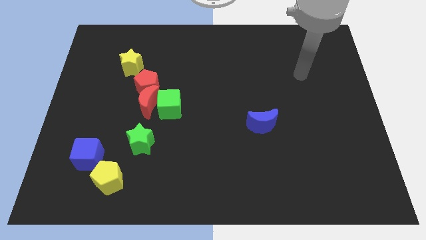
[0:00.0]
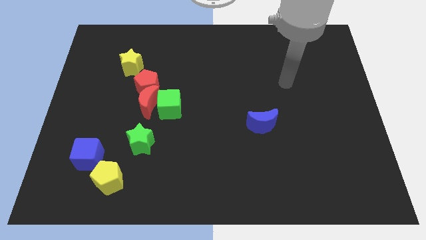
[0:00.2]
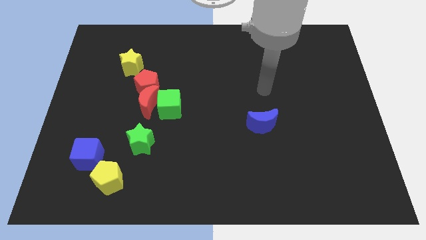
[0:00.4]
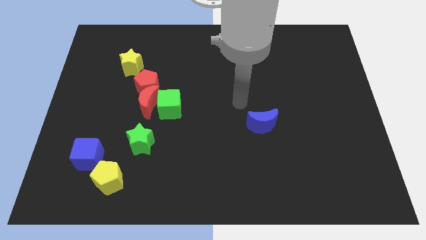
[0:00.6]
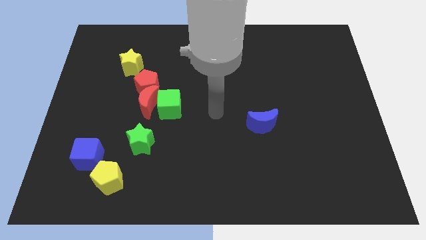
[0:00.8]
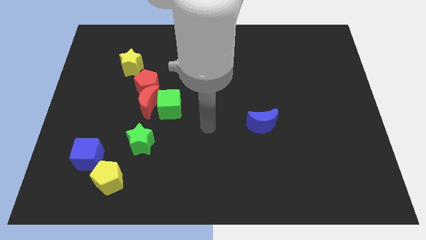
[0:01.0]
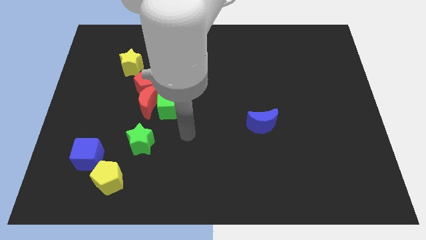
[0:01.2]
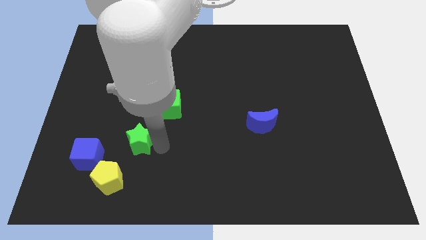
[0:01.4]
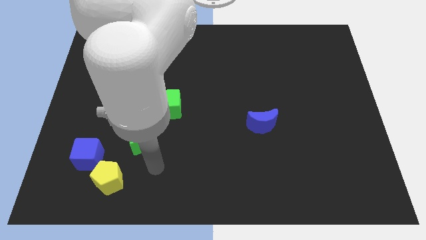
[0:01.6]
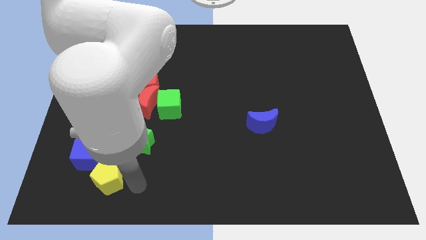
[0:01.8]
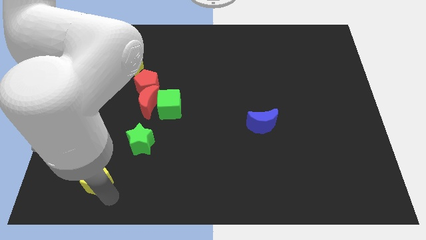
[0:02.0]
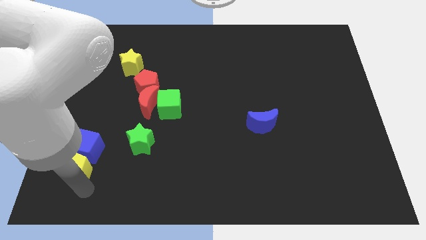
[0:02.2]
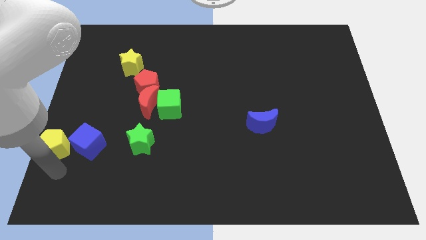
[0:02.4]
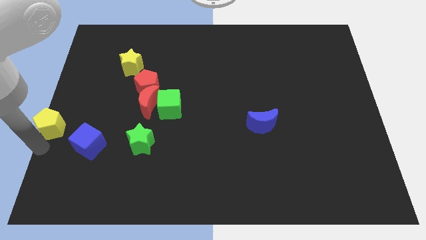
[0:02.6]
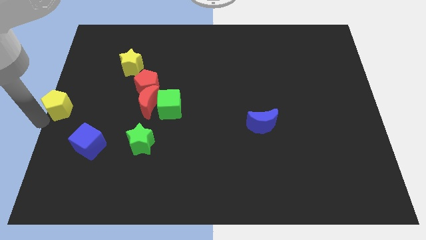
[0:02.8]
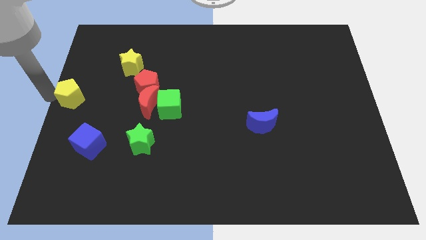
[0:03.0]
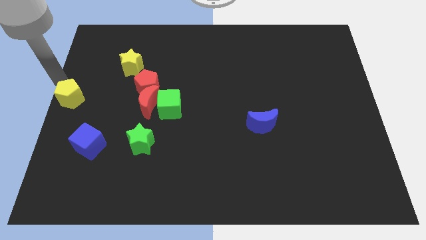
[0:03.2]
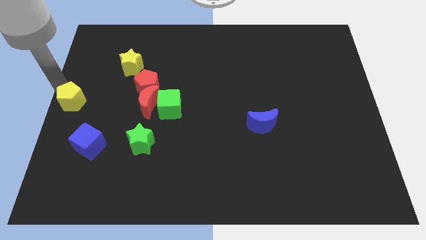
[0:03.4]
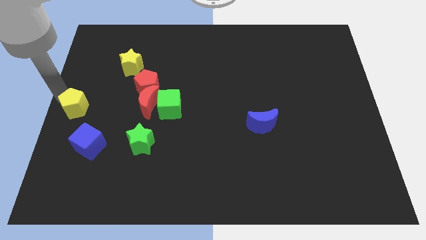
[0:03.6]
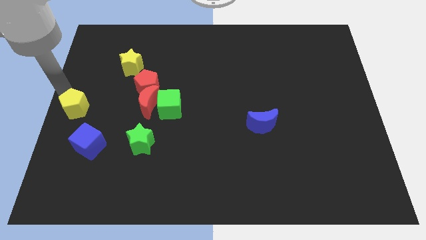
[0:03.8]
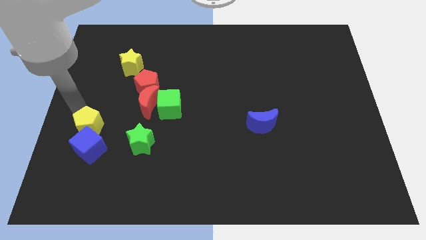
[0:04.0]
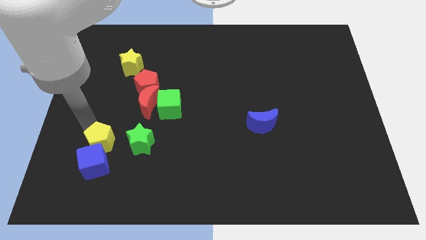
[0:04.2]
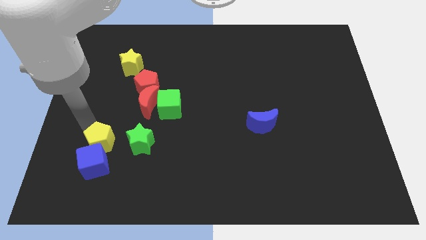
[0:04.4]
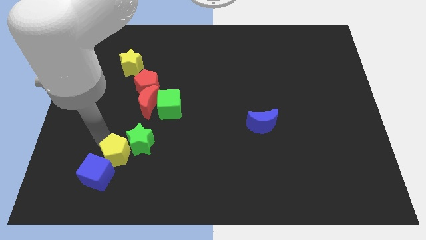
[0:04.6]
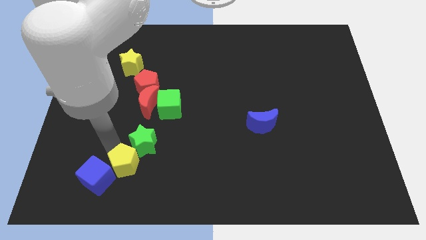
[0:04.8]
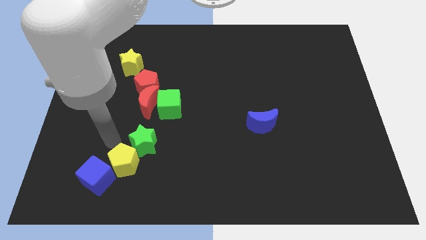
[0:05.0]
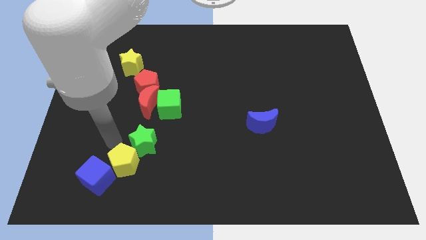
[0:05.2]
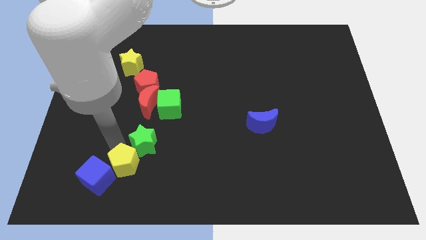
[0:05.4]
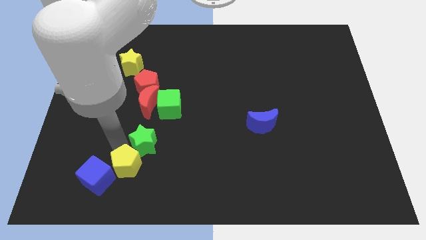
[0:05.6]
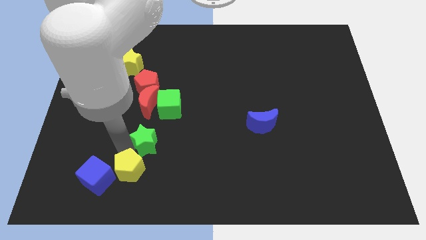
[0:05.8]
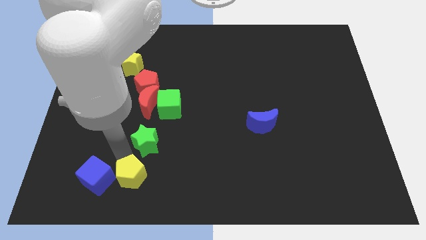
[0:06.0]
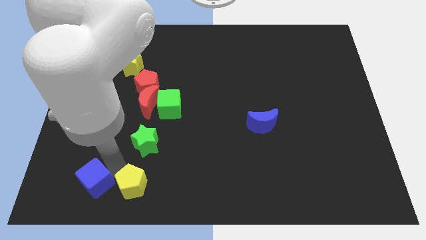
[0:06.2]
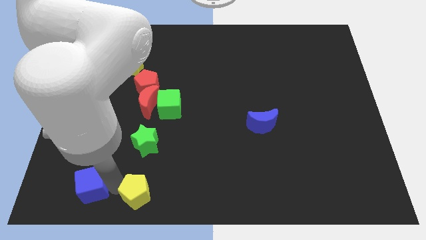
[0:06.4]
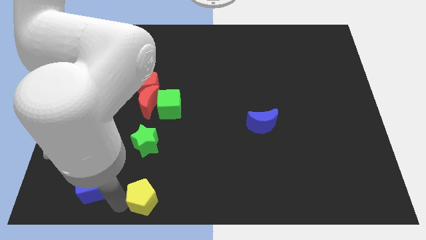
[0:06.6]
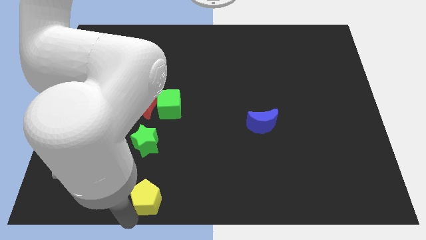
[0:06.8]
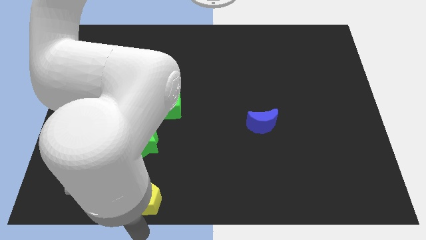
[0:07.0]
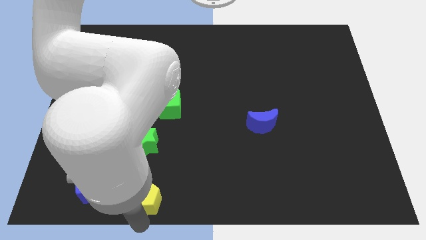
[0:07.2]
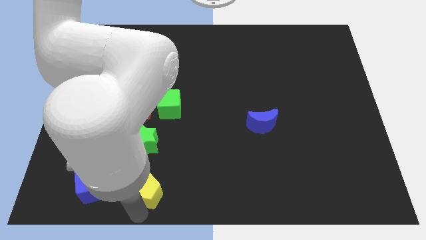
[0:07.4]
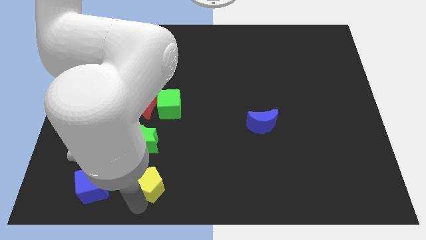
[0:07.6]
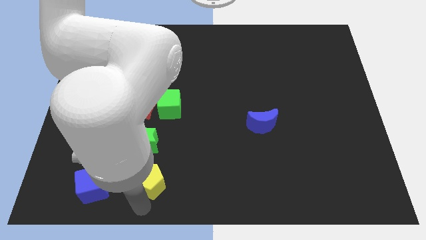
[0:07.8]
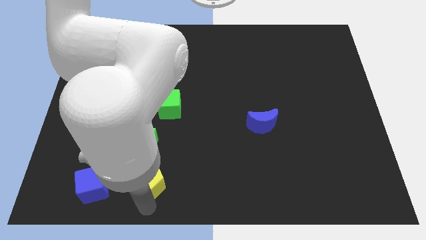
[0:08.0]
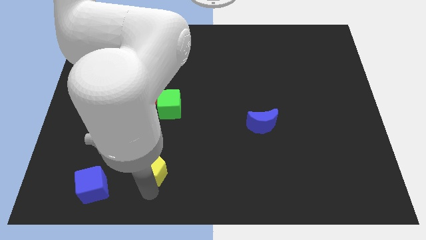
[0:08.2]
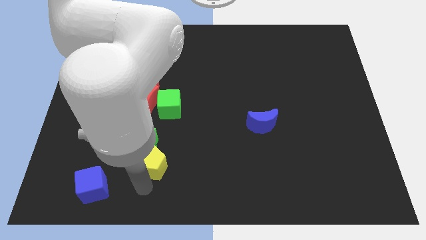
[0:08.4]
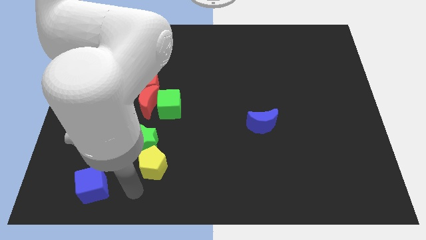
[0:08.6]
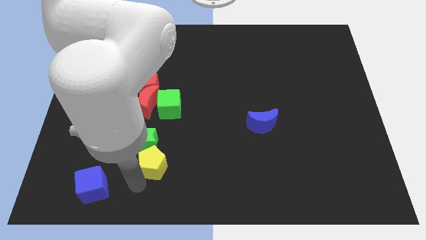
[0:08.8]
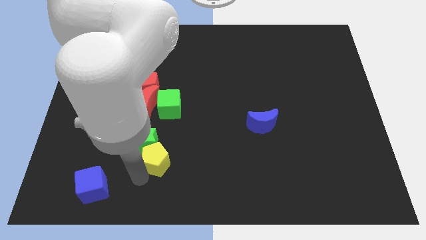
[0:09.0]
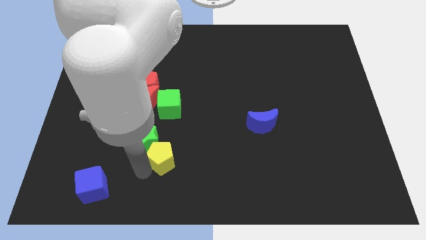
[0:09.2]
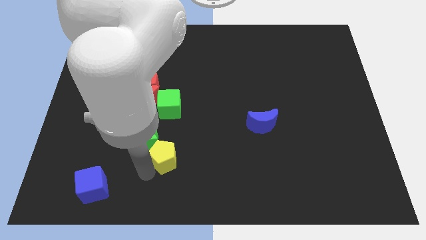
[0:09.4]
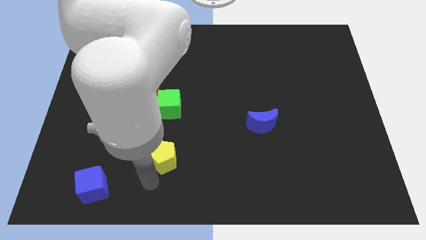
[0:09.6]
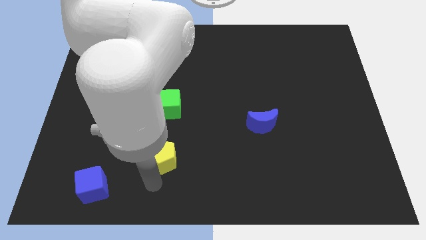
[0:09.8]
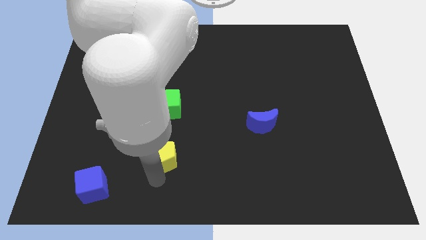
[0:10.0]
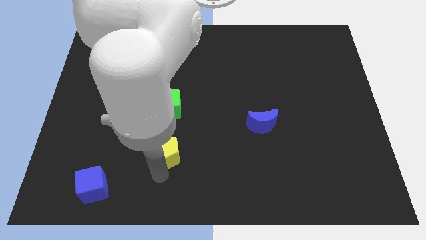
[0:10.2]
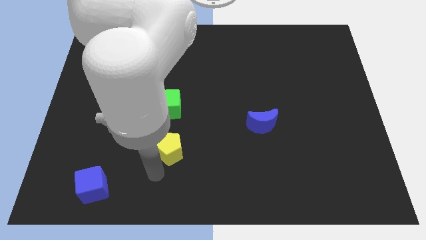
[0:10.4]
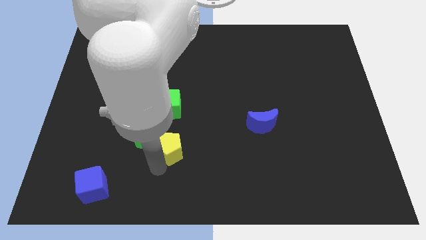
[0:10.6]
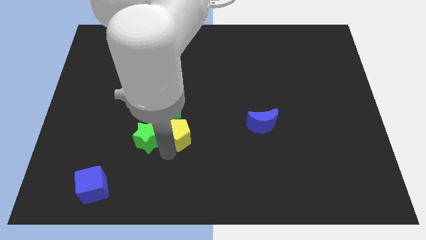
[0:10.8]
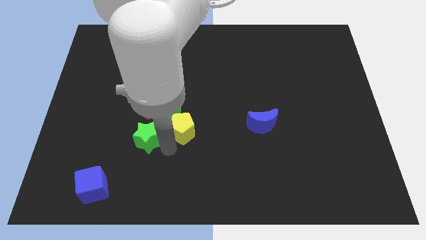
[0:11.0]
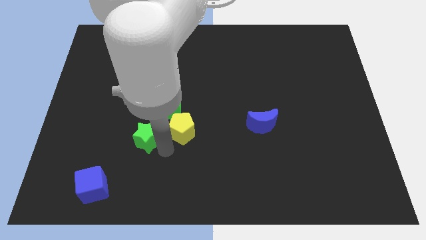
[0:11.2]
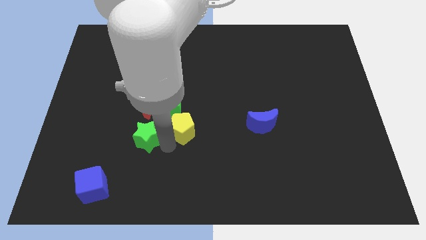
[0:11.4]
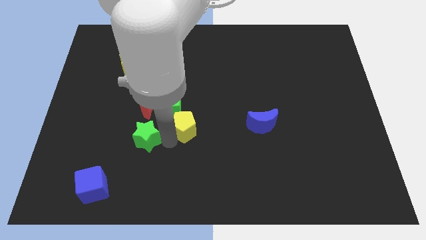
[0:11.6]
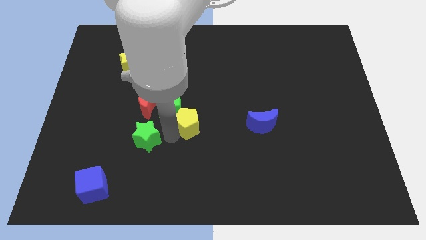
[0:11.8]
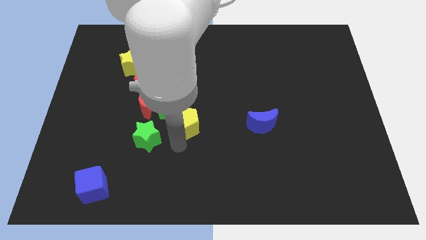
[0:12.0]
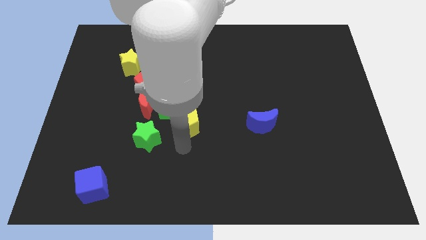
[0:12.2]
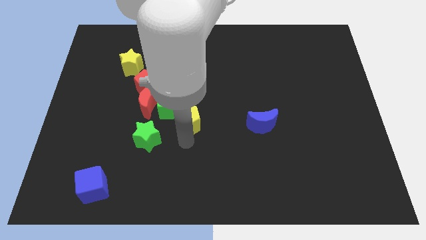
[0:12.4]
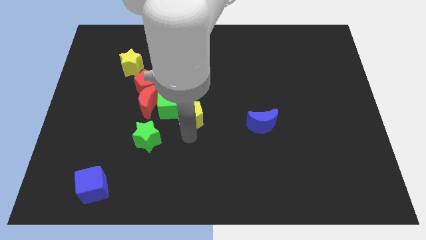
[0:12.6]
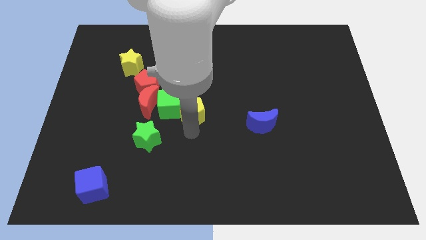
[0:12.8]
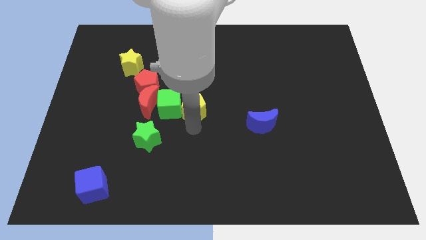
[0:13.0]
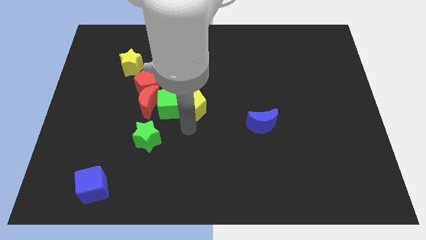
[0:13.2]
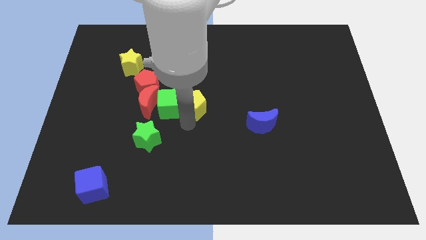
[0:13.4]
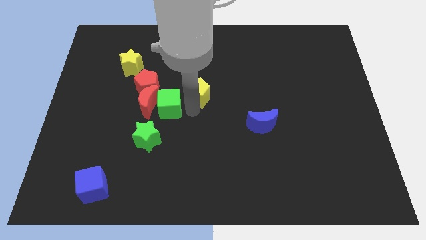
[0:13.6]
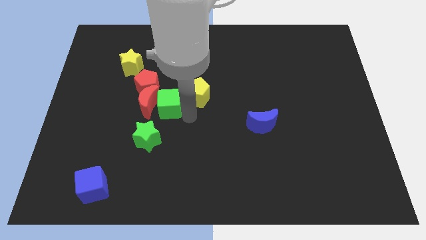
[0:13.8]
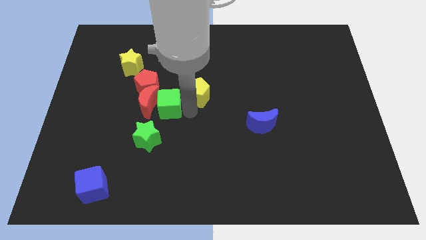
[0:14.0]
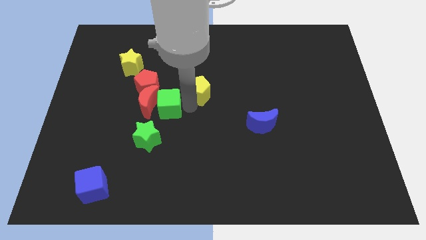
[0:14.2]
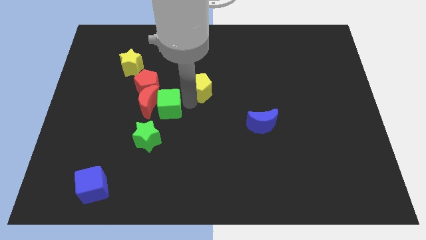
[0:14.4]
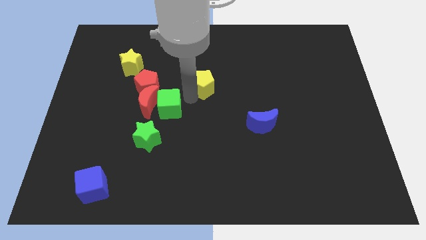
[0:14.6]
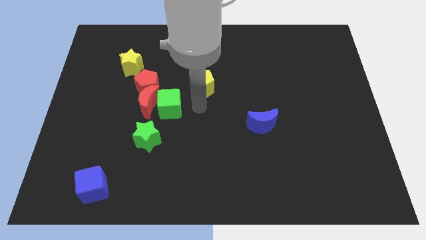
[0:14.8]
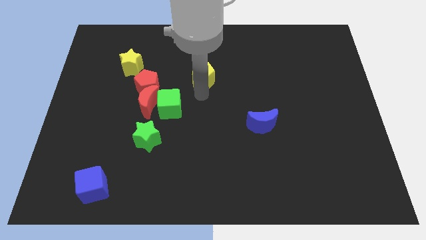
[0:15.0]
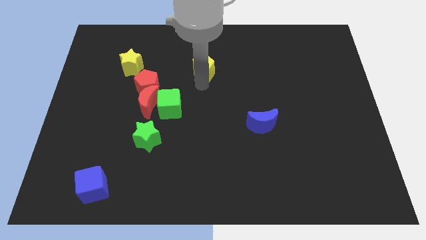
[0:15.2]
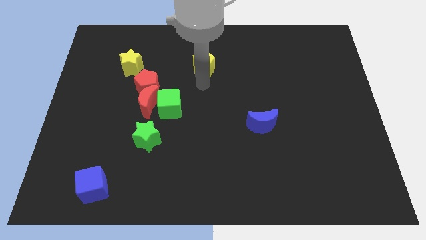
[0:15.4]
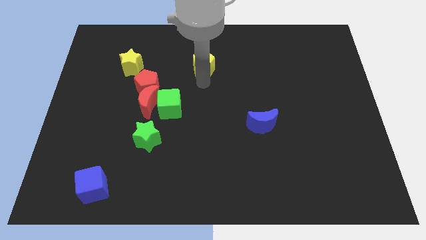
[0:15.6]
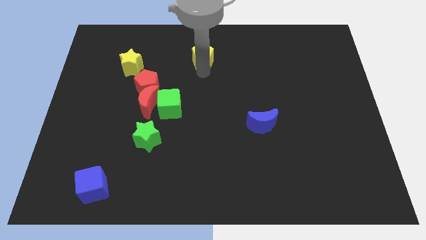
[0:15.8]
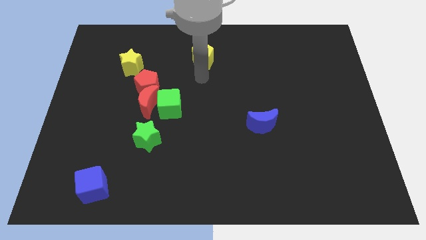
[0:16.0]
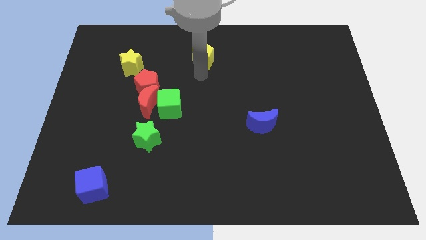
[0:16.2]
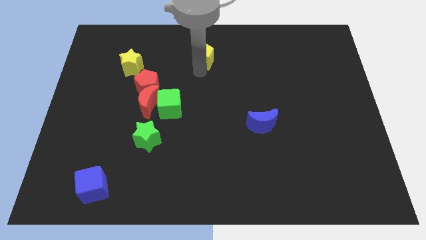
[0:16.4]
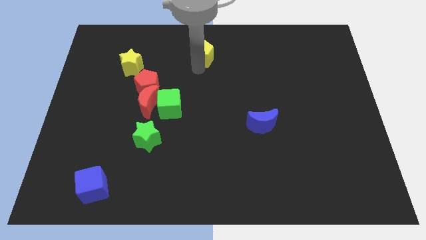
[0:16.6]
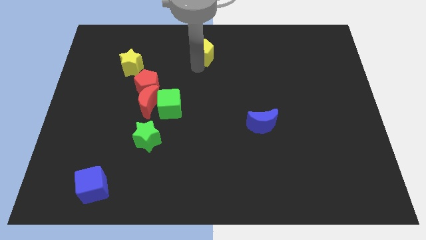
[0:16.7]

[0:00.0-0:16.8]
move the yellow pentagon to the top side
